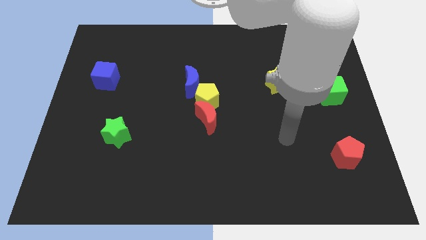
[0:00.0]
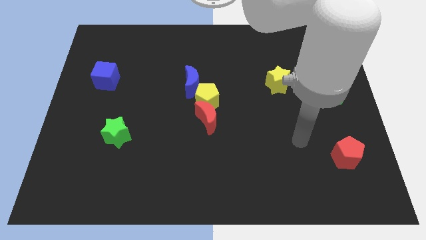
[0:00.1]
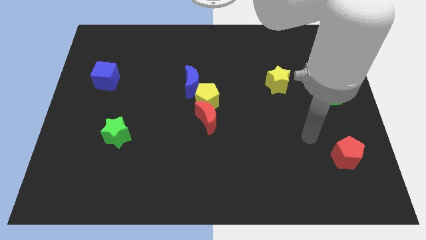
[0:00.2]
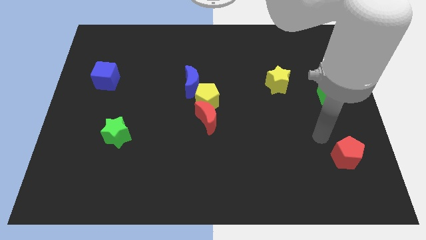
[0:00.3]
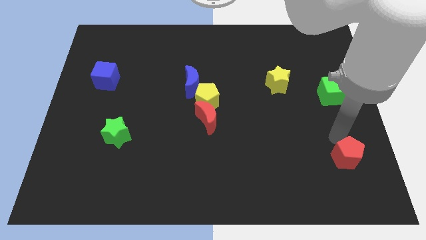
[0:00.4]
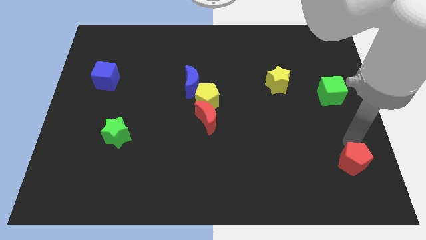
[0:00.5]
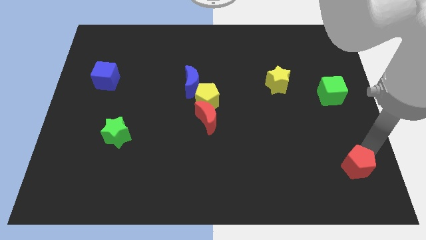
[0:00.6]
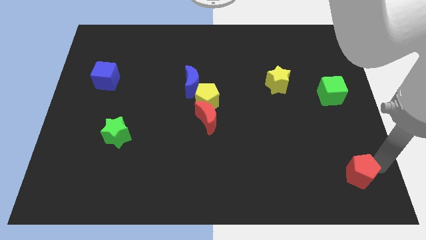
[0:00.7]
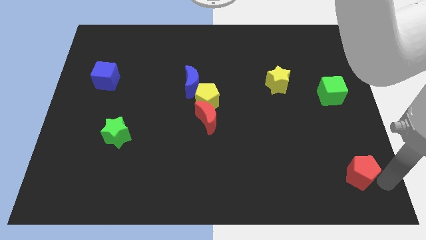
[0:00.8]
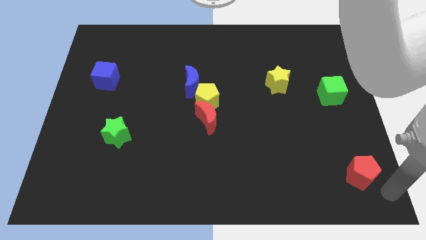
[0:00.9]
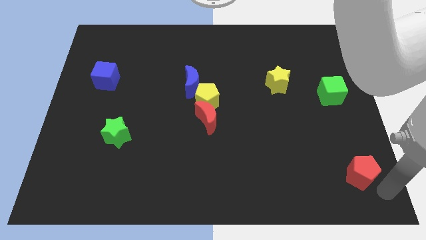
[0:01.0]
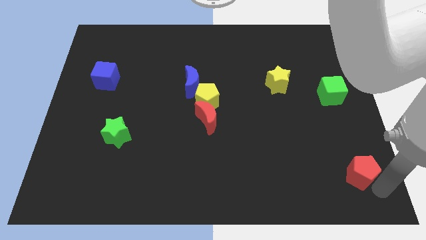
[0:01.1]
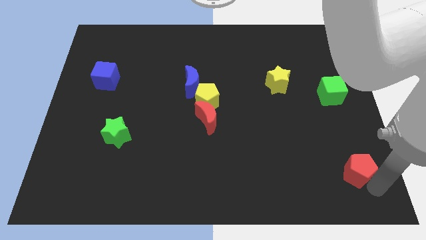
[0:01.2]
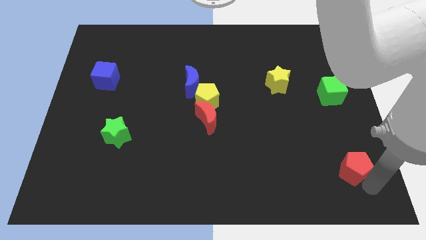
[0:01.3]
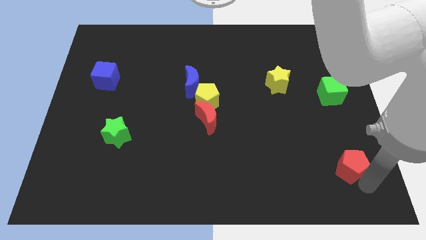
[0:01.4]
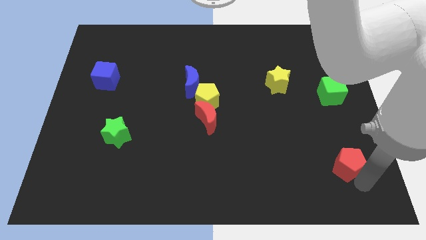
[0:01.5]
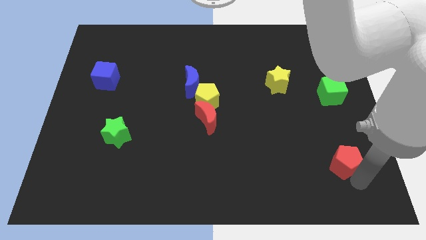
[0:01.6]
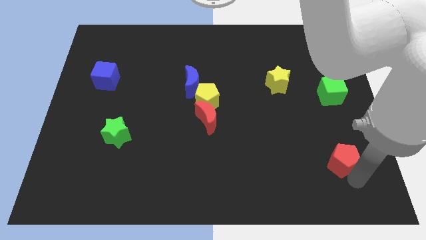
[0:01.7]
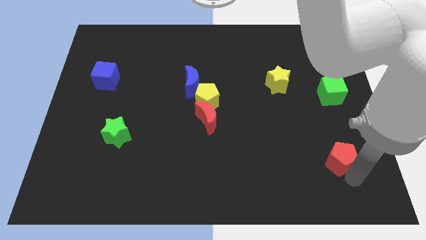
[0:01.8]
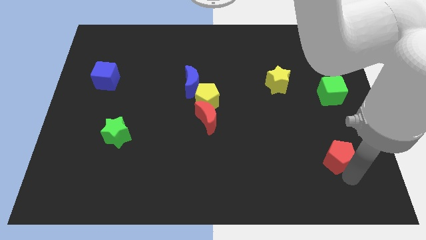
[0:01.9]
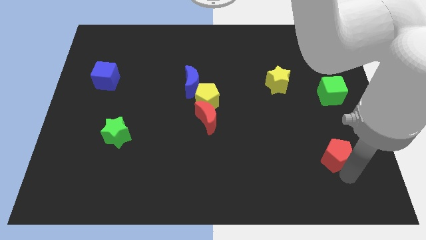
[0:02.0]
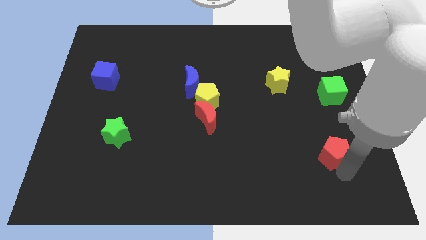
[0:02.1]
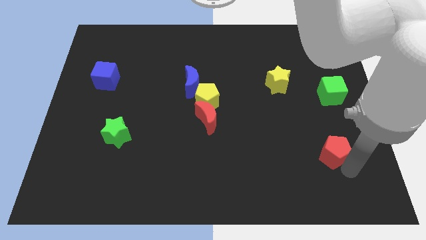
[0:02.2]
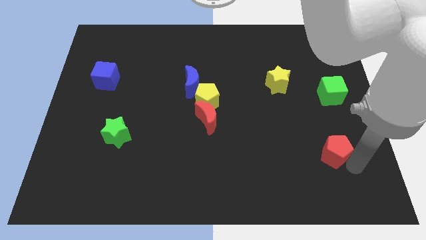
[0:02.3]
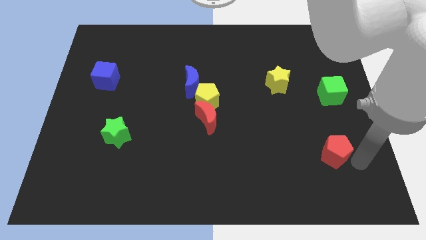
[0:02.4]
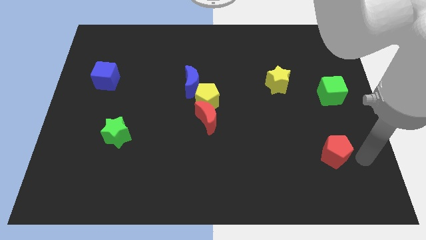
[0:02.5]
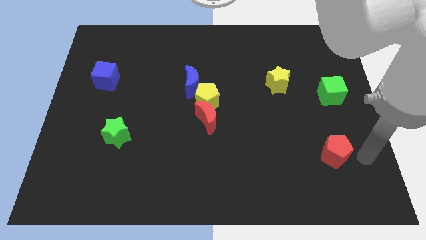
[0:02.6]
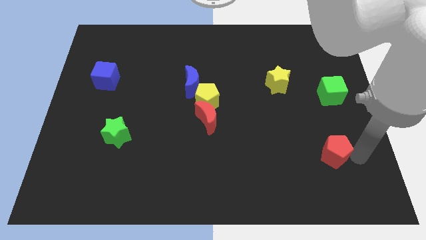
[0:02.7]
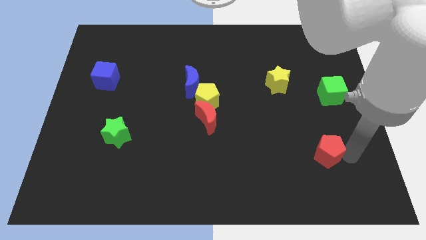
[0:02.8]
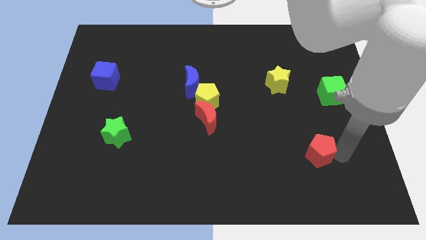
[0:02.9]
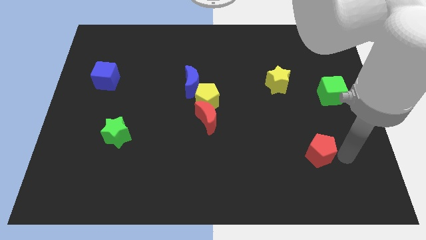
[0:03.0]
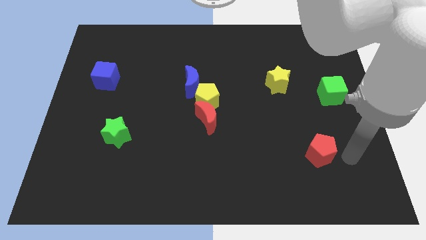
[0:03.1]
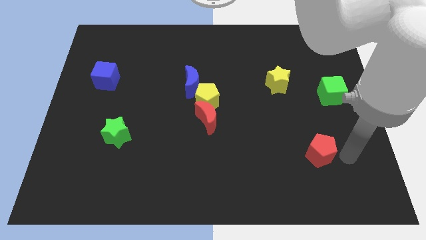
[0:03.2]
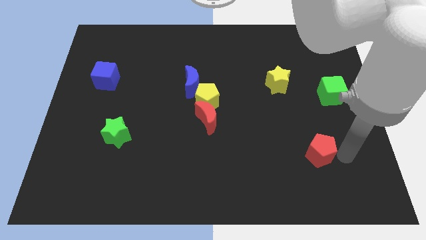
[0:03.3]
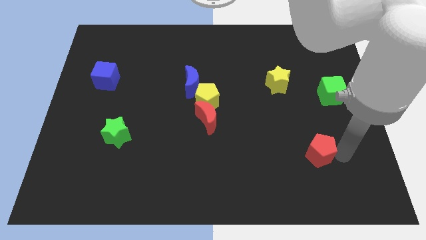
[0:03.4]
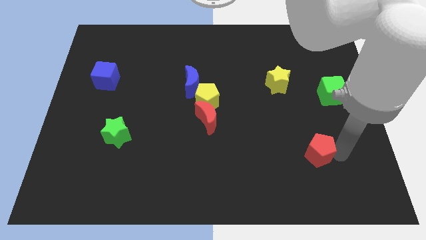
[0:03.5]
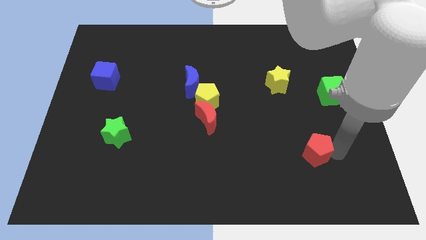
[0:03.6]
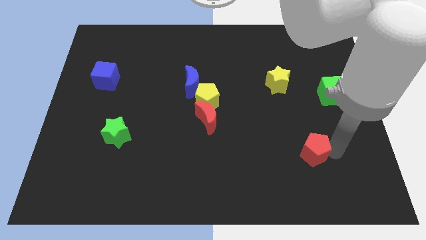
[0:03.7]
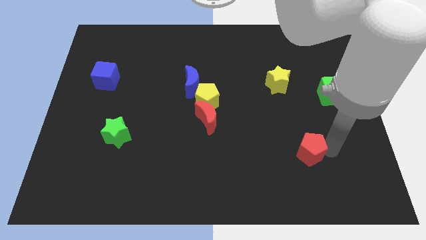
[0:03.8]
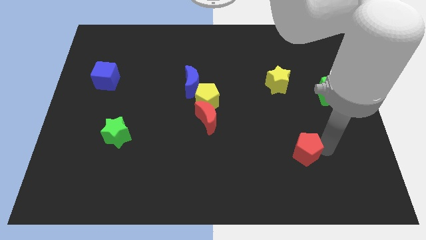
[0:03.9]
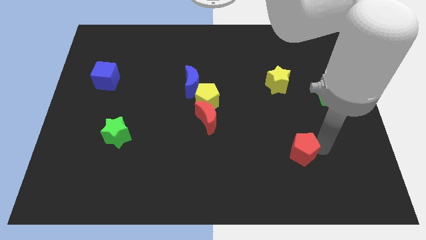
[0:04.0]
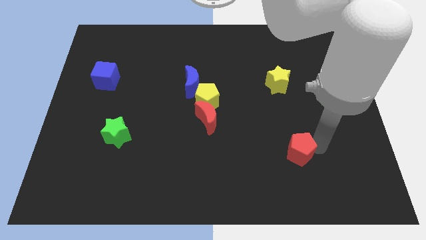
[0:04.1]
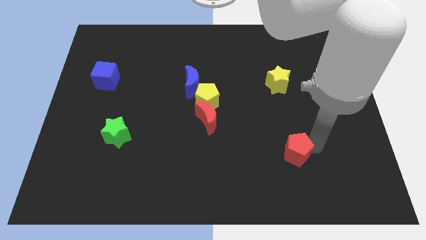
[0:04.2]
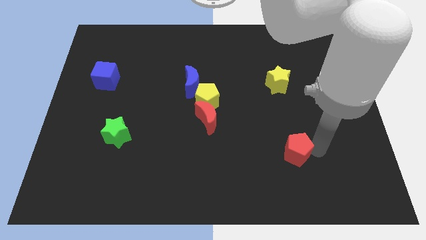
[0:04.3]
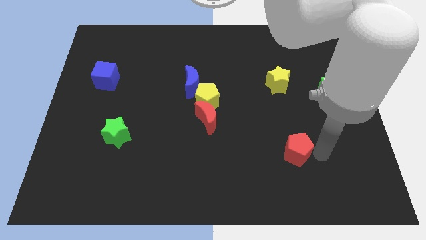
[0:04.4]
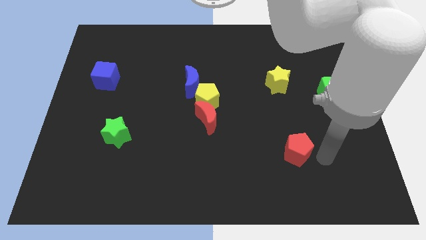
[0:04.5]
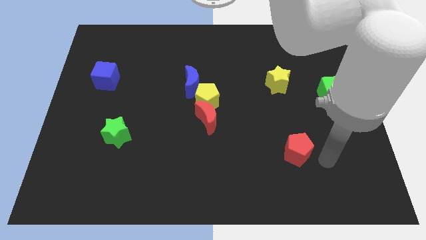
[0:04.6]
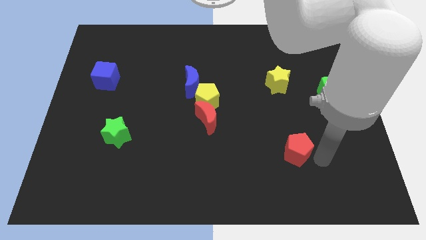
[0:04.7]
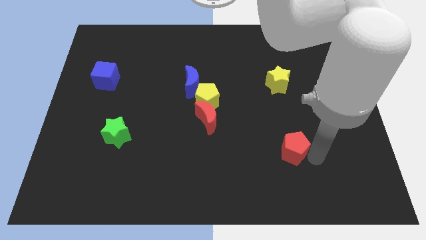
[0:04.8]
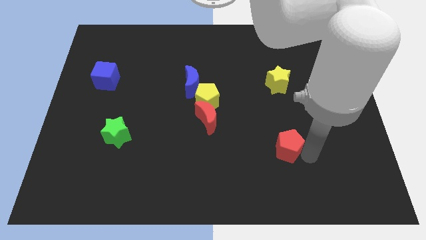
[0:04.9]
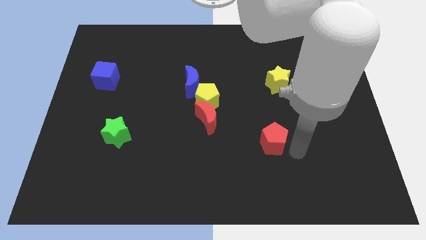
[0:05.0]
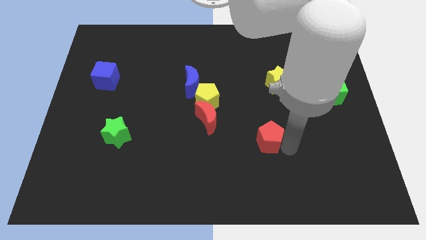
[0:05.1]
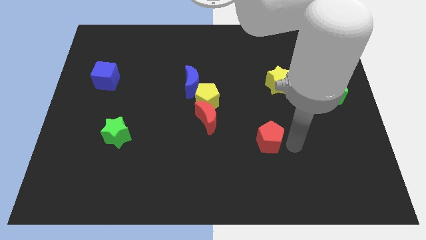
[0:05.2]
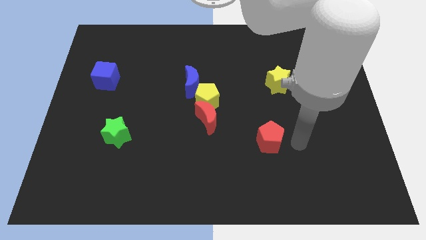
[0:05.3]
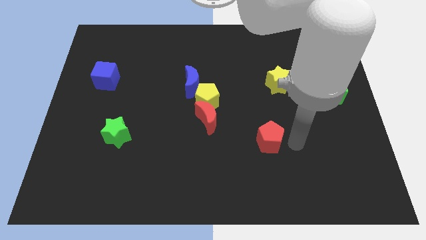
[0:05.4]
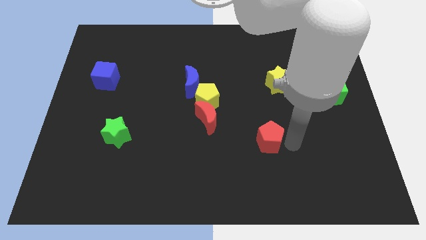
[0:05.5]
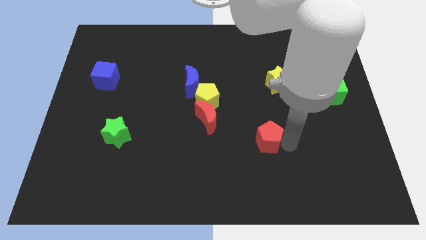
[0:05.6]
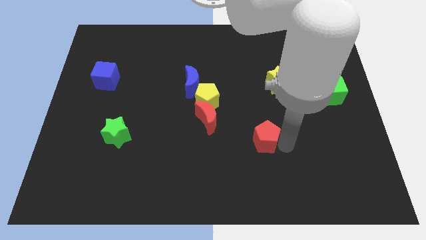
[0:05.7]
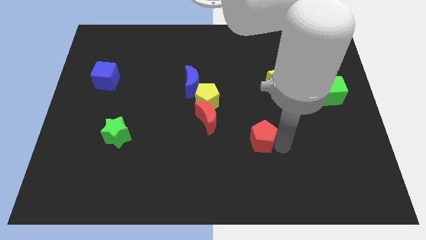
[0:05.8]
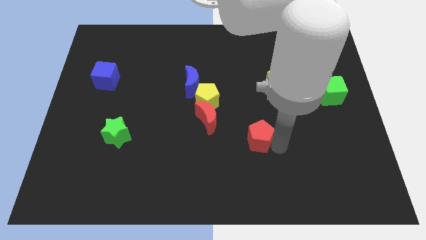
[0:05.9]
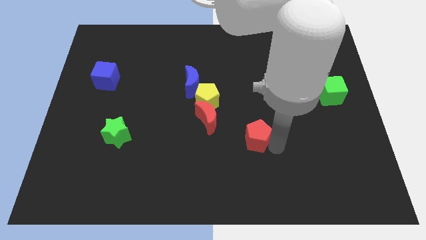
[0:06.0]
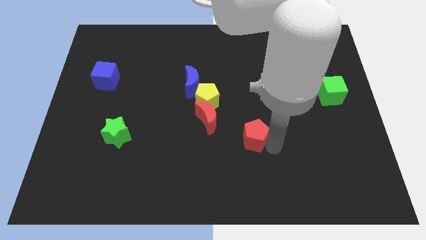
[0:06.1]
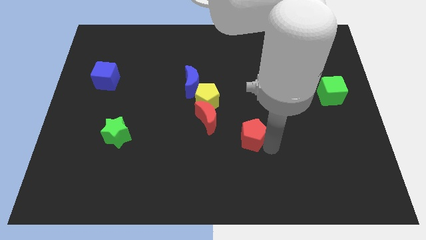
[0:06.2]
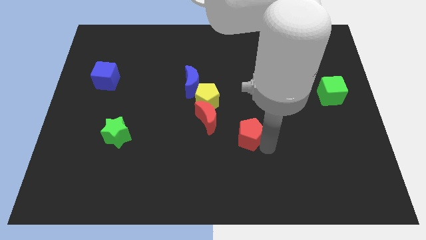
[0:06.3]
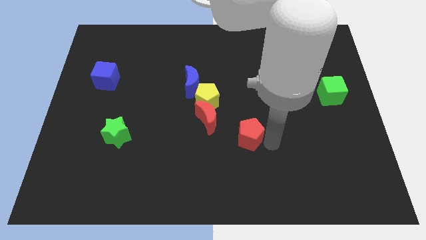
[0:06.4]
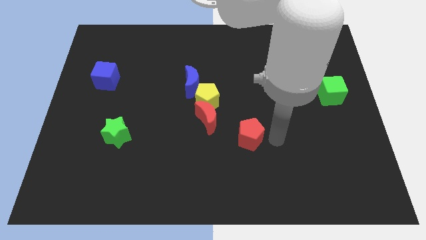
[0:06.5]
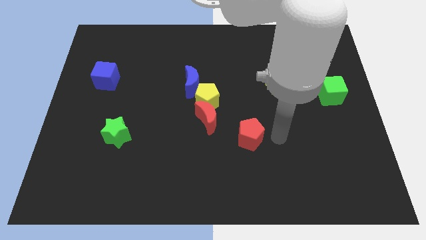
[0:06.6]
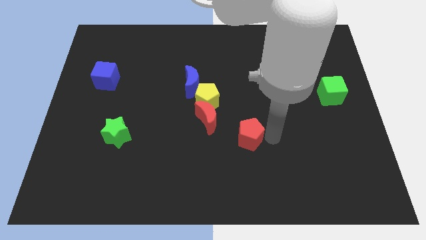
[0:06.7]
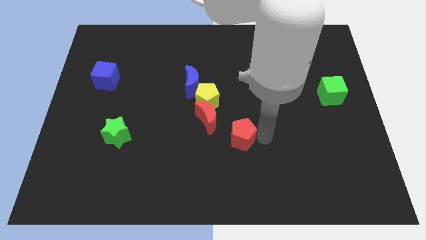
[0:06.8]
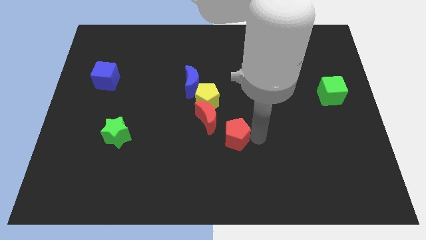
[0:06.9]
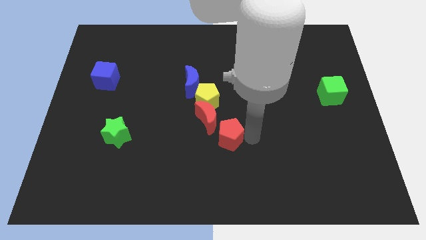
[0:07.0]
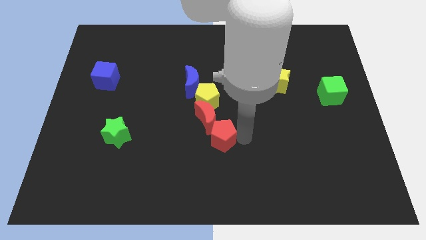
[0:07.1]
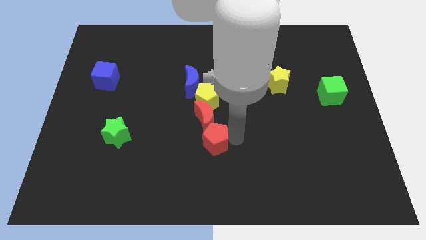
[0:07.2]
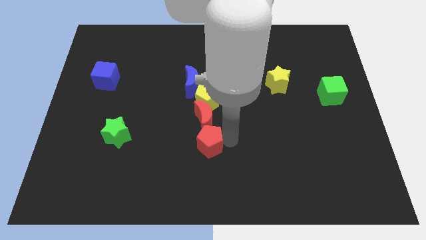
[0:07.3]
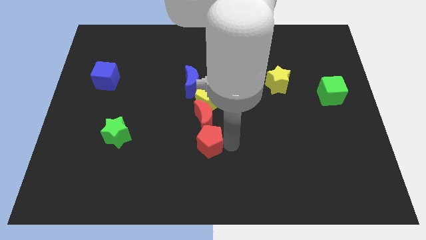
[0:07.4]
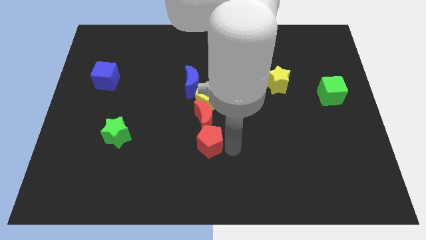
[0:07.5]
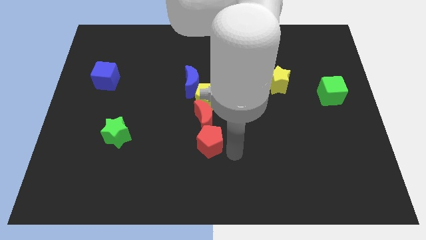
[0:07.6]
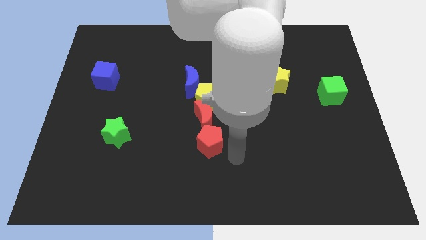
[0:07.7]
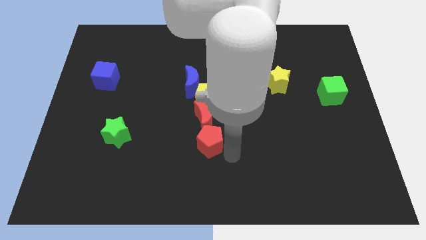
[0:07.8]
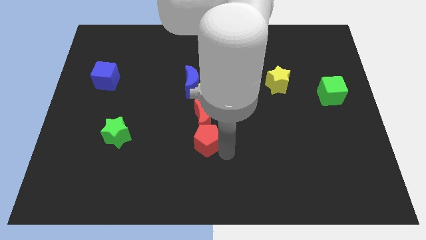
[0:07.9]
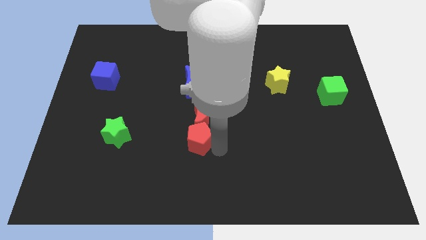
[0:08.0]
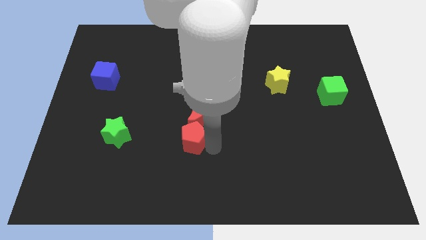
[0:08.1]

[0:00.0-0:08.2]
push the red pentagon to the bottom side of the blue moon
